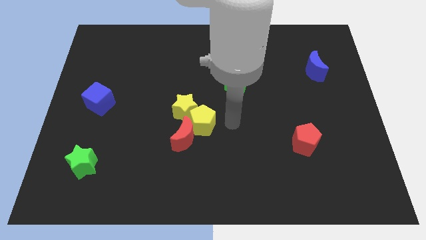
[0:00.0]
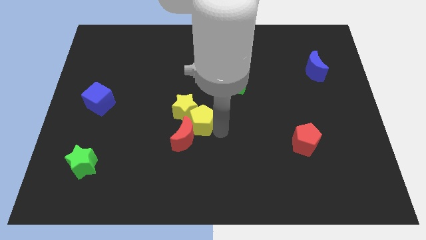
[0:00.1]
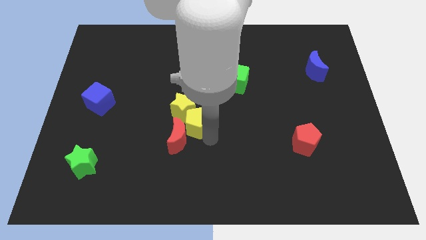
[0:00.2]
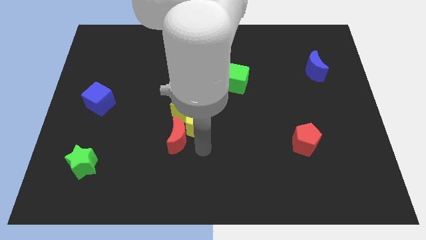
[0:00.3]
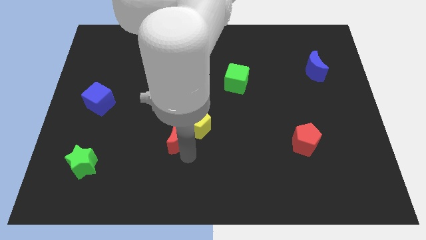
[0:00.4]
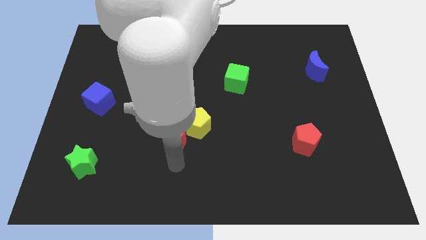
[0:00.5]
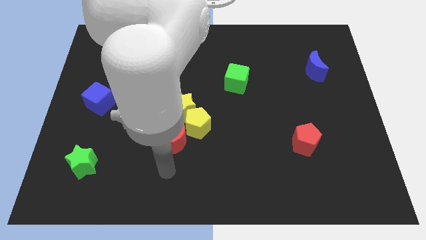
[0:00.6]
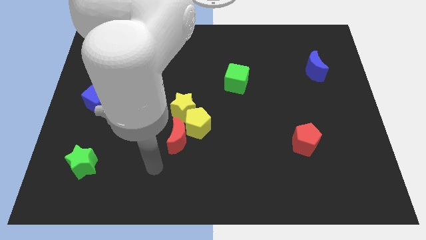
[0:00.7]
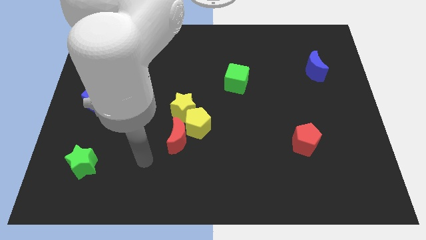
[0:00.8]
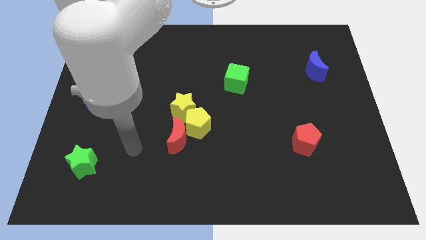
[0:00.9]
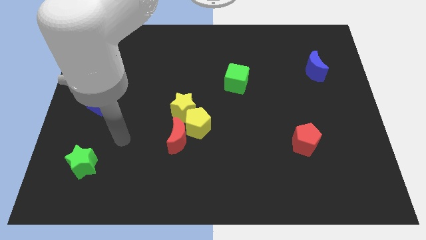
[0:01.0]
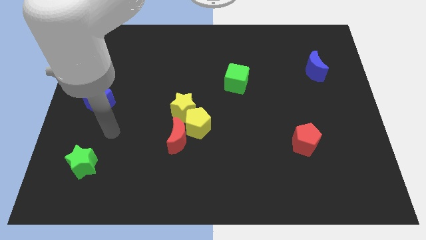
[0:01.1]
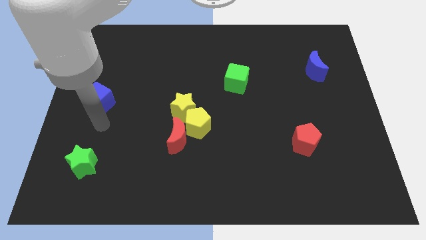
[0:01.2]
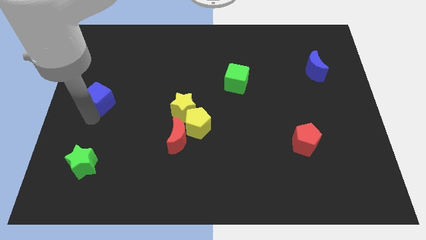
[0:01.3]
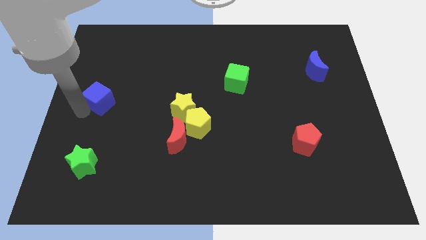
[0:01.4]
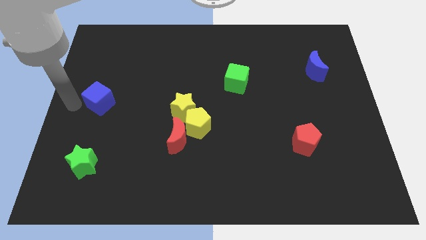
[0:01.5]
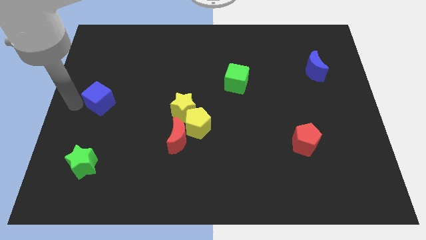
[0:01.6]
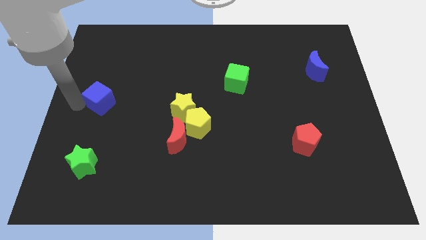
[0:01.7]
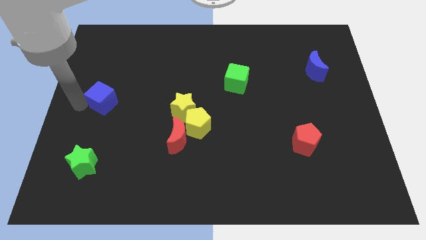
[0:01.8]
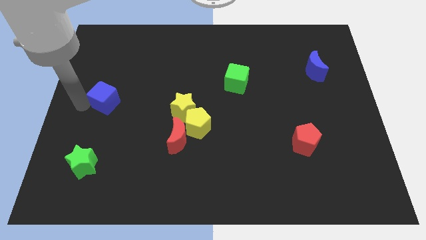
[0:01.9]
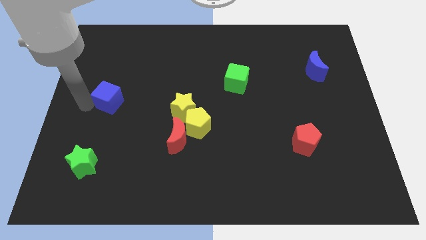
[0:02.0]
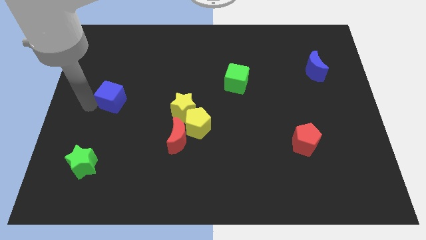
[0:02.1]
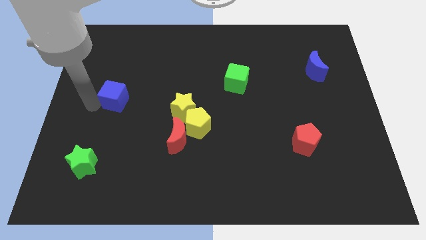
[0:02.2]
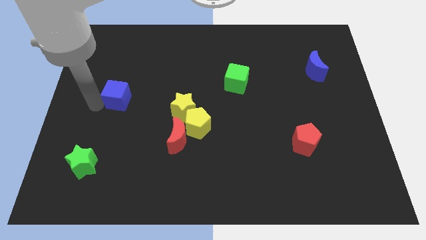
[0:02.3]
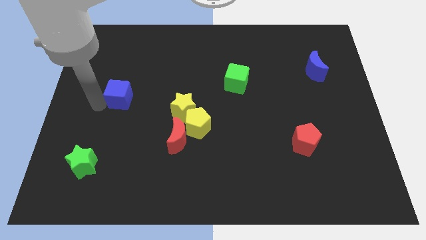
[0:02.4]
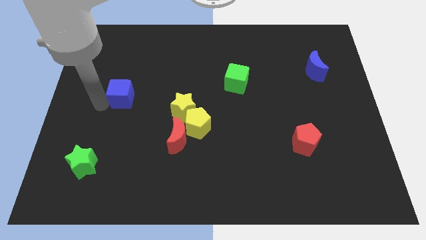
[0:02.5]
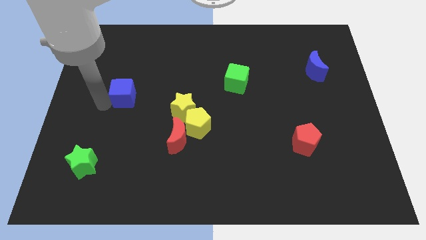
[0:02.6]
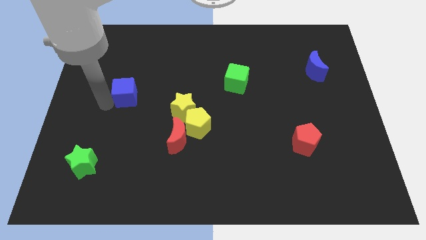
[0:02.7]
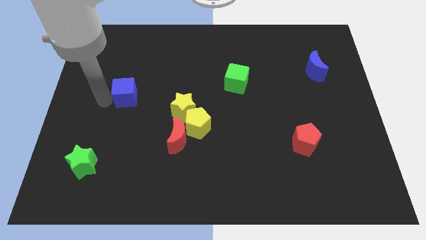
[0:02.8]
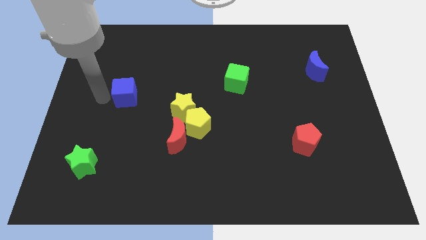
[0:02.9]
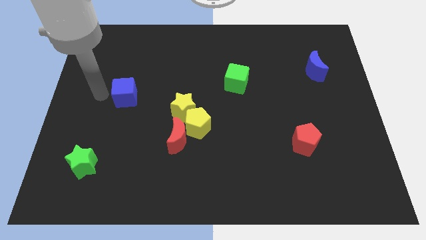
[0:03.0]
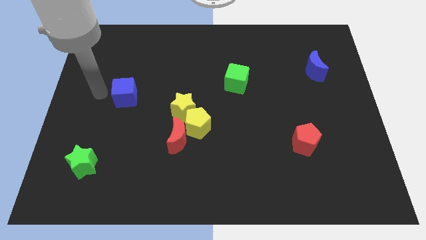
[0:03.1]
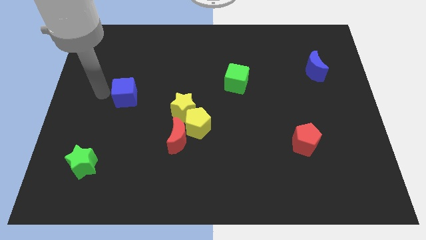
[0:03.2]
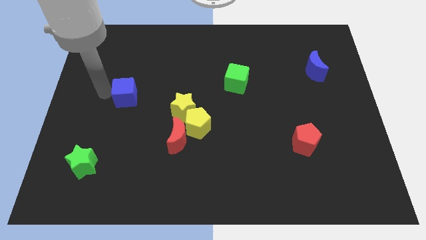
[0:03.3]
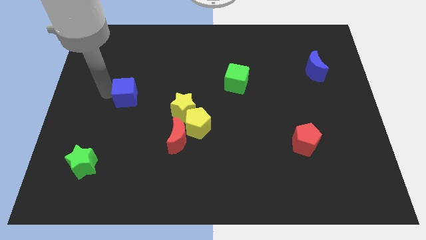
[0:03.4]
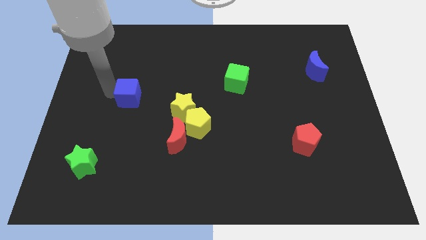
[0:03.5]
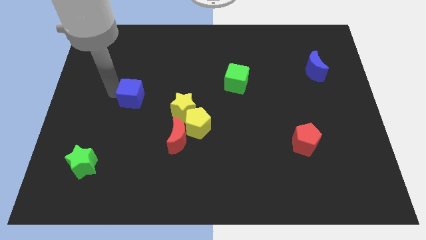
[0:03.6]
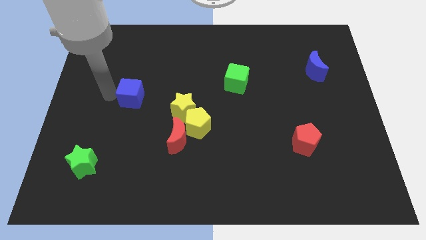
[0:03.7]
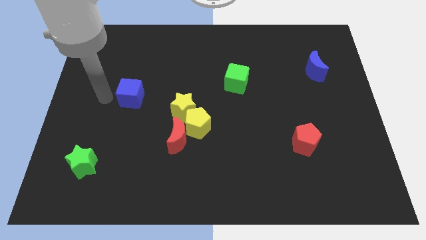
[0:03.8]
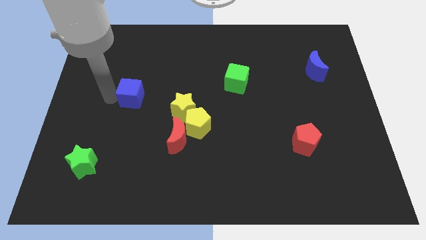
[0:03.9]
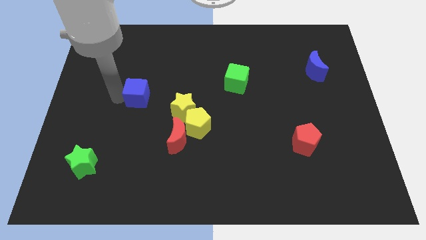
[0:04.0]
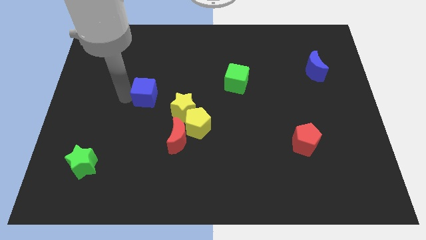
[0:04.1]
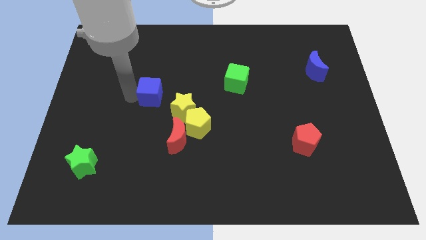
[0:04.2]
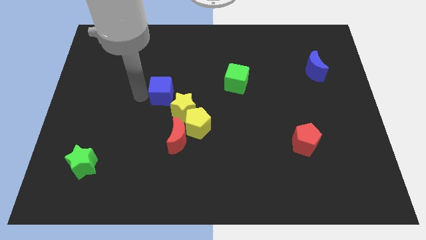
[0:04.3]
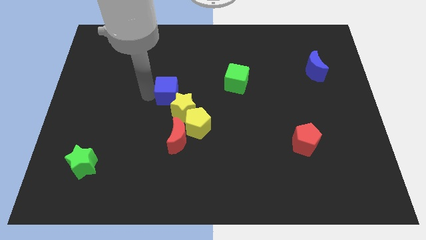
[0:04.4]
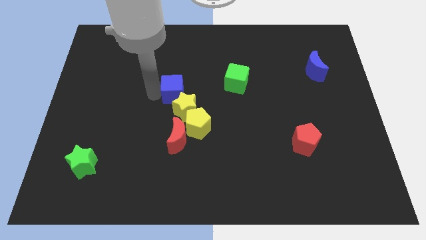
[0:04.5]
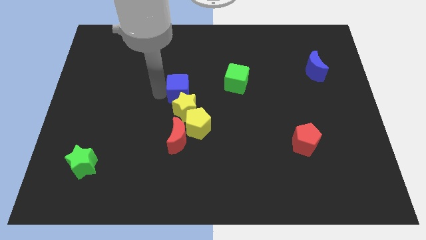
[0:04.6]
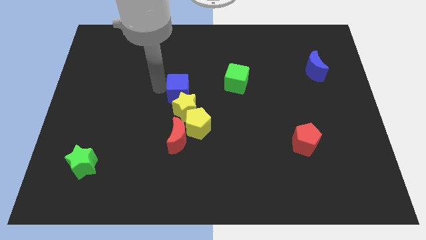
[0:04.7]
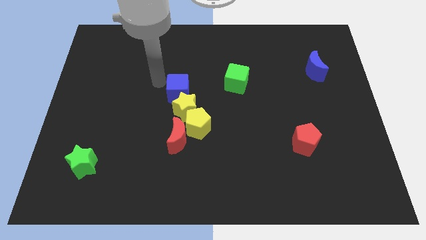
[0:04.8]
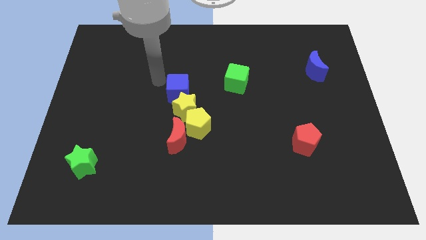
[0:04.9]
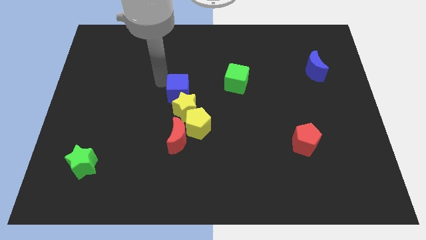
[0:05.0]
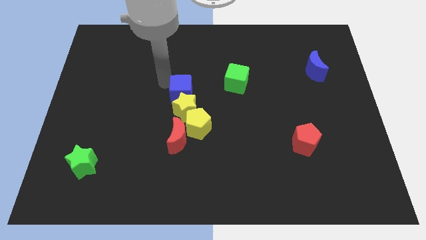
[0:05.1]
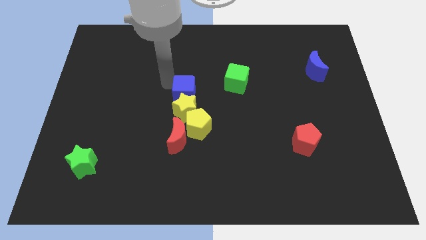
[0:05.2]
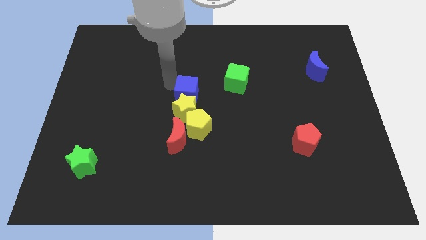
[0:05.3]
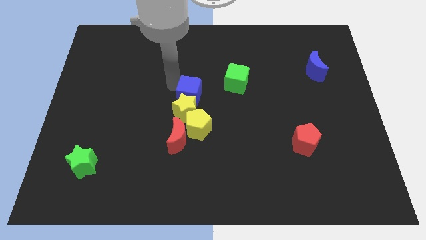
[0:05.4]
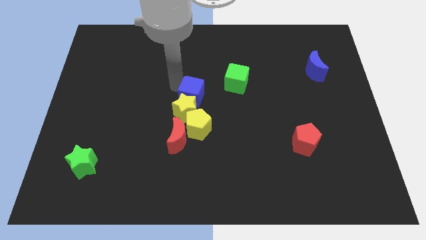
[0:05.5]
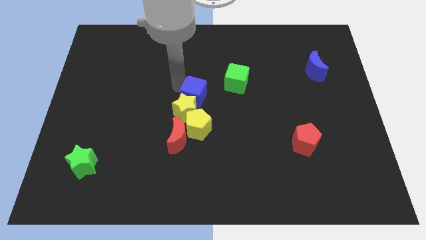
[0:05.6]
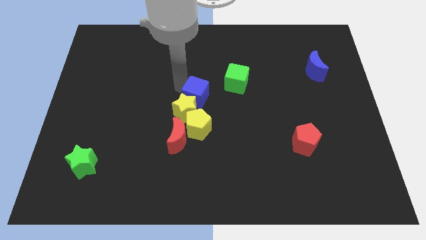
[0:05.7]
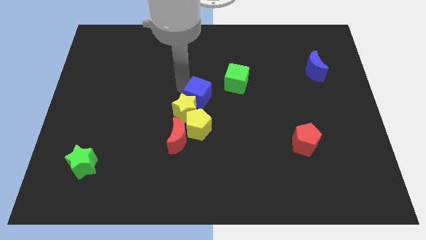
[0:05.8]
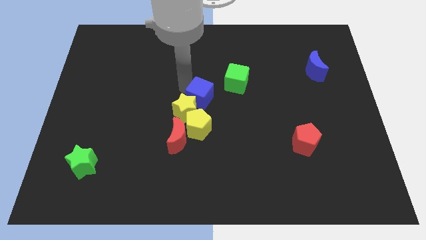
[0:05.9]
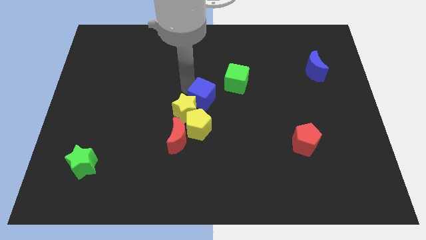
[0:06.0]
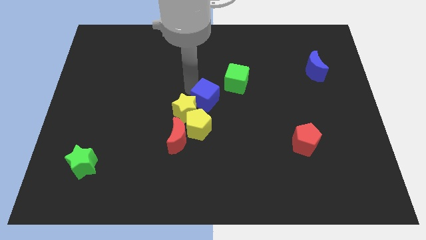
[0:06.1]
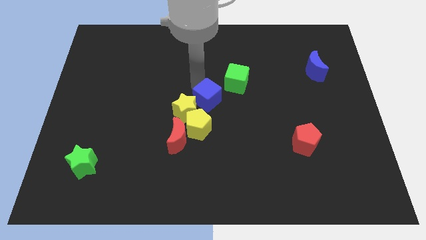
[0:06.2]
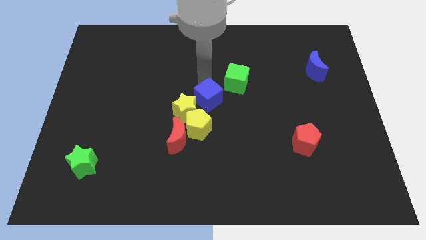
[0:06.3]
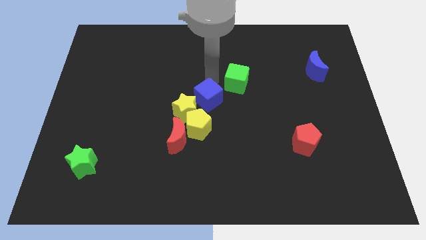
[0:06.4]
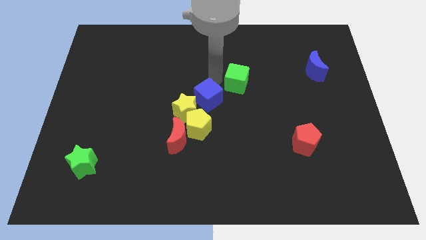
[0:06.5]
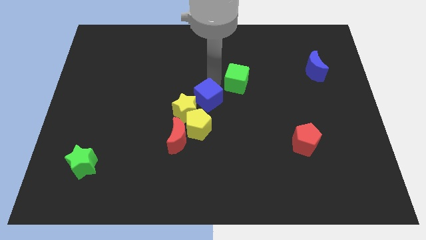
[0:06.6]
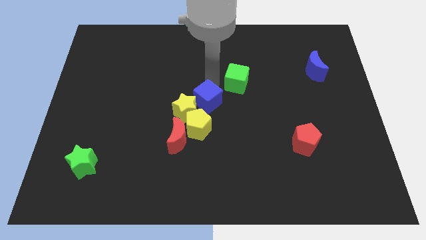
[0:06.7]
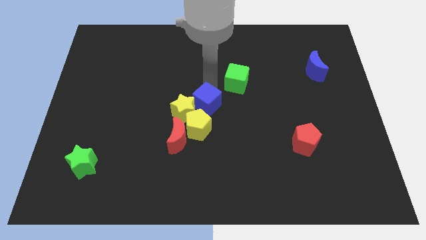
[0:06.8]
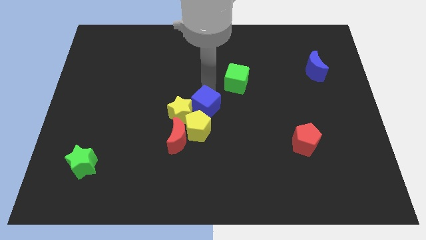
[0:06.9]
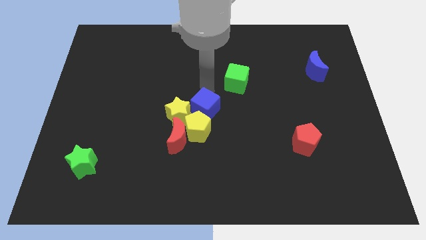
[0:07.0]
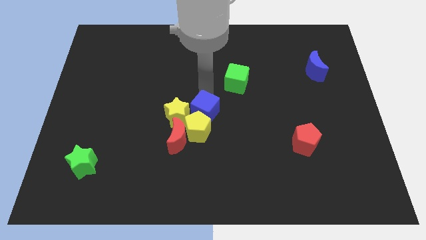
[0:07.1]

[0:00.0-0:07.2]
move the blue cube next to the yellow pentagon
